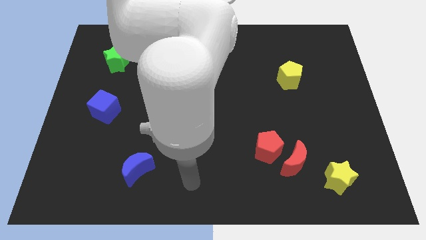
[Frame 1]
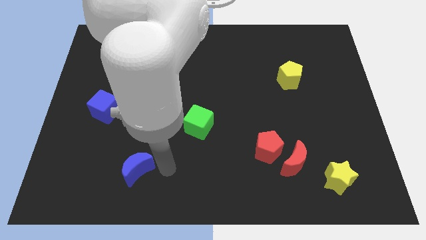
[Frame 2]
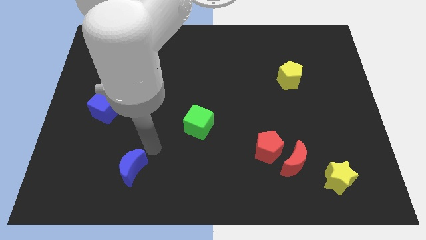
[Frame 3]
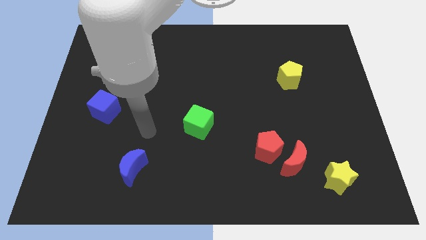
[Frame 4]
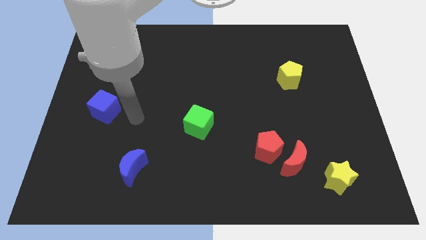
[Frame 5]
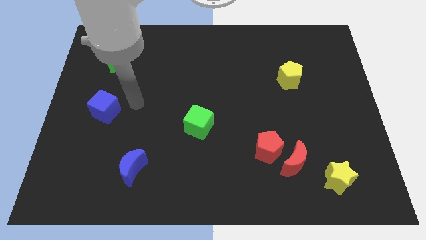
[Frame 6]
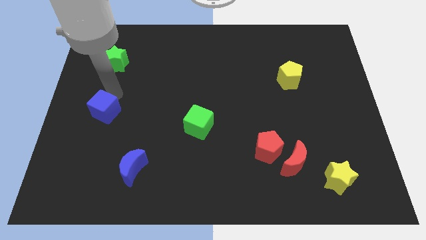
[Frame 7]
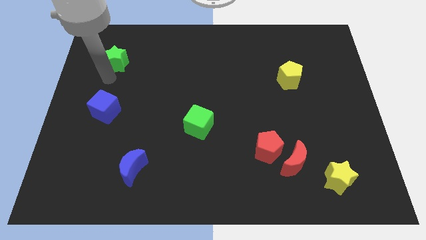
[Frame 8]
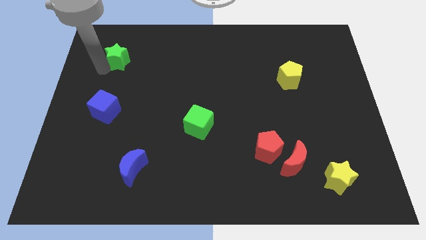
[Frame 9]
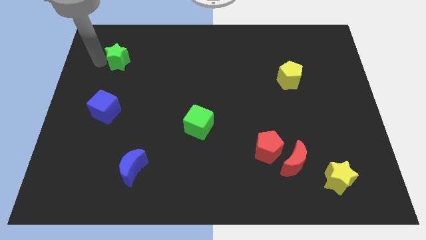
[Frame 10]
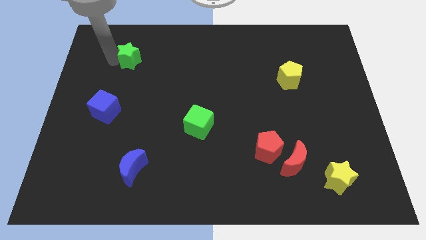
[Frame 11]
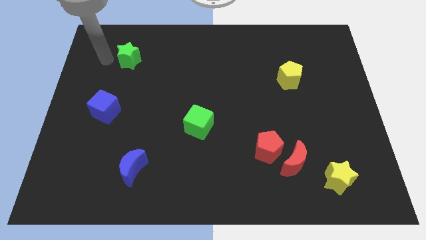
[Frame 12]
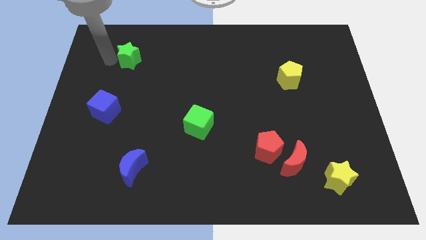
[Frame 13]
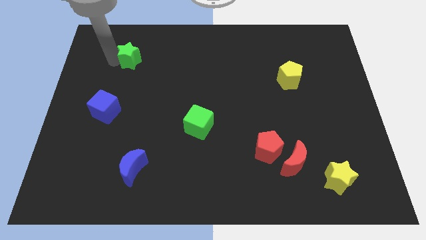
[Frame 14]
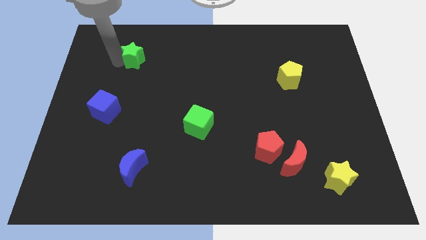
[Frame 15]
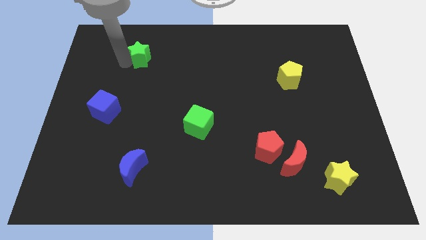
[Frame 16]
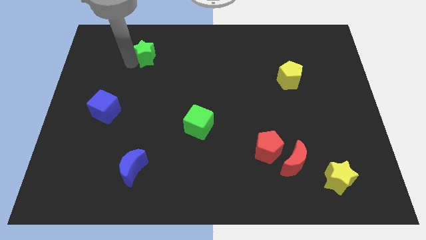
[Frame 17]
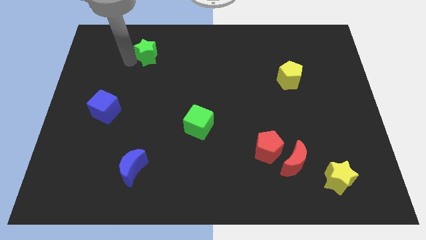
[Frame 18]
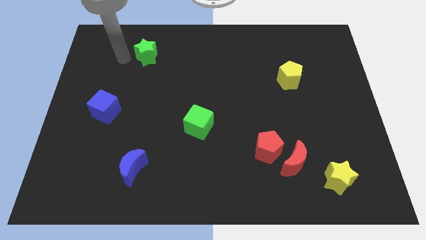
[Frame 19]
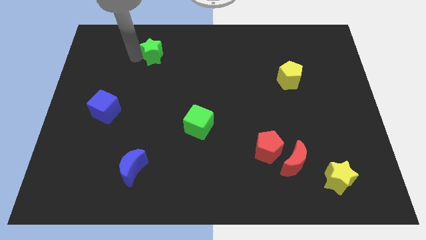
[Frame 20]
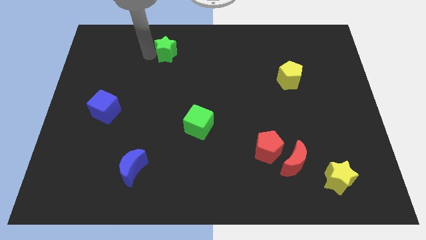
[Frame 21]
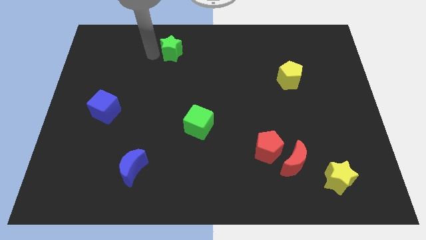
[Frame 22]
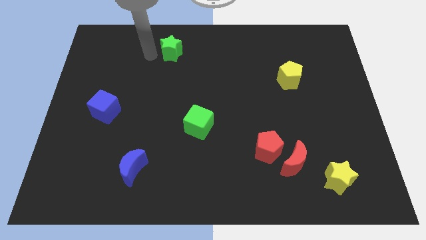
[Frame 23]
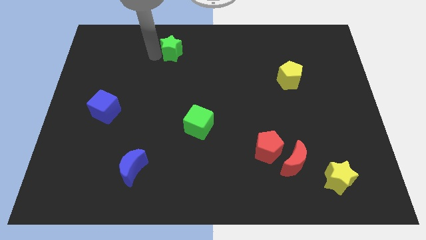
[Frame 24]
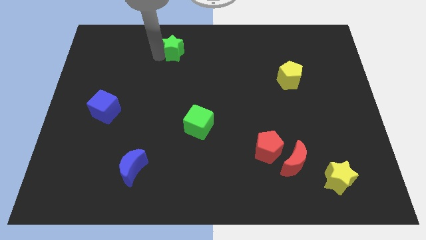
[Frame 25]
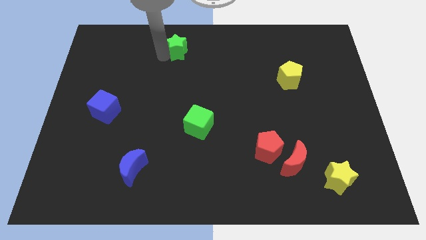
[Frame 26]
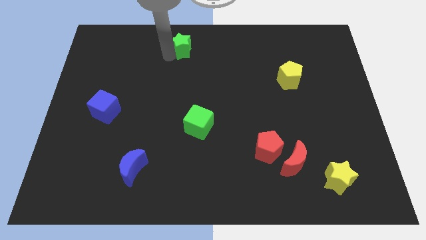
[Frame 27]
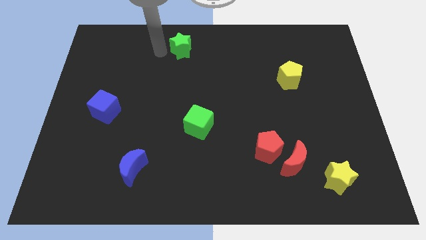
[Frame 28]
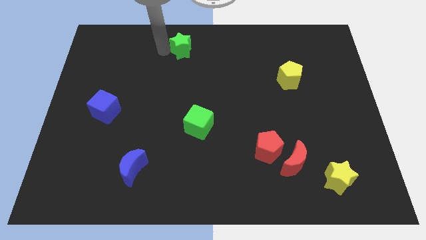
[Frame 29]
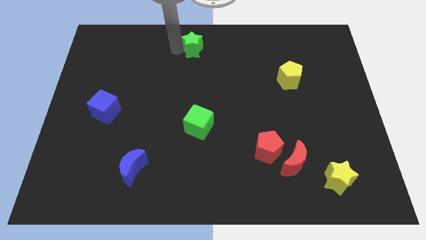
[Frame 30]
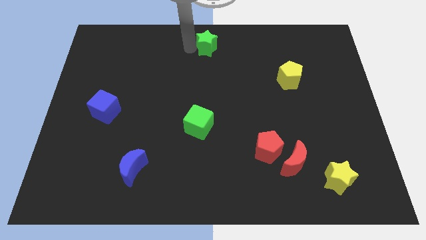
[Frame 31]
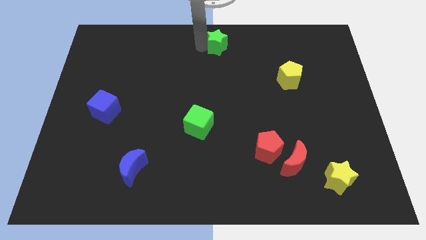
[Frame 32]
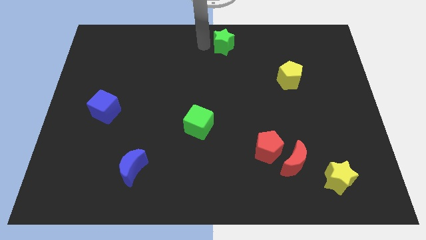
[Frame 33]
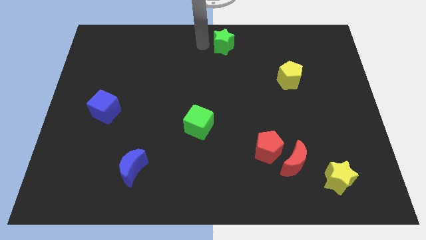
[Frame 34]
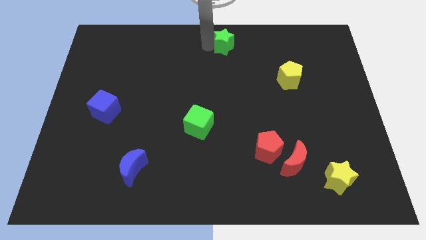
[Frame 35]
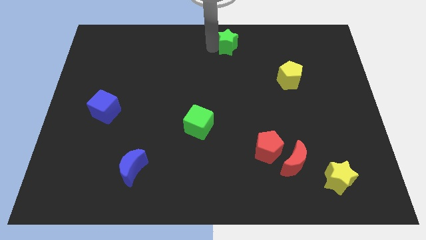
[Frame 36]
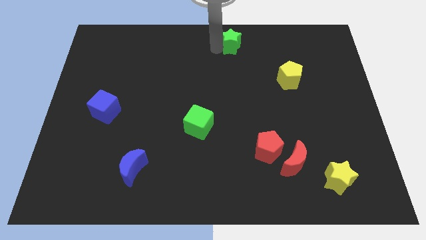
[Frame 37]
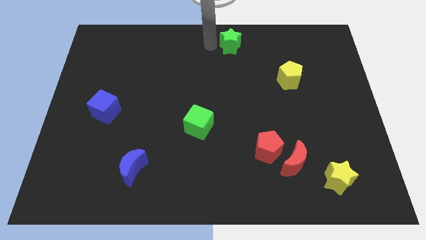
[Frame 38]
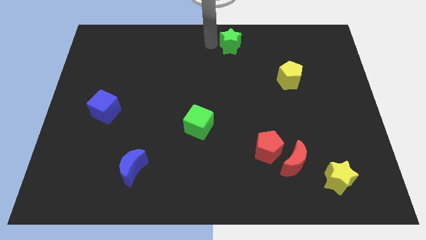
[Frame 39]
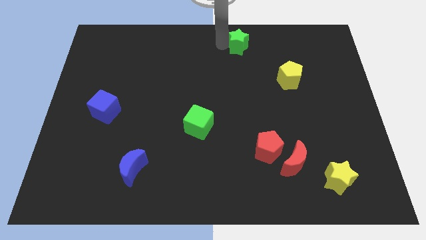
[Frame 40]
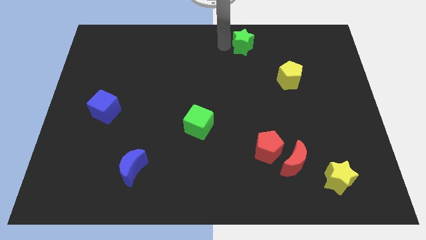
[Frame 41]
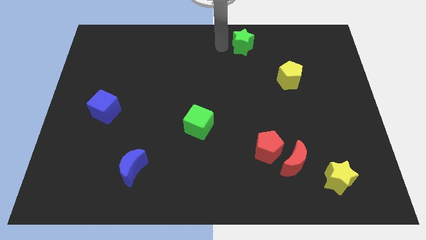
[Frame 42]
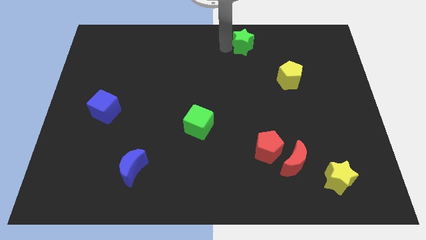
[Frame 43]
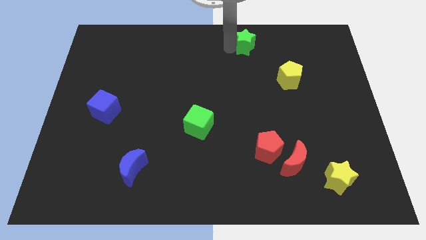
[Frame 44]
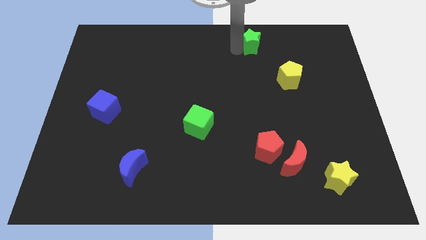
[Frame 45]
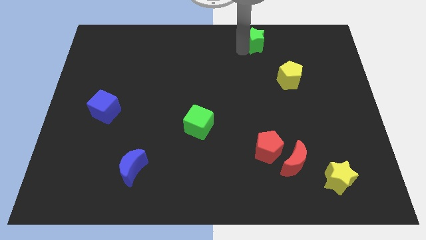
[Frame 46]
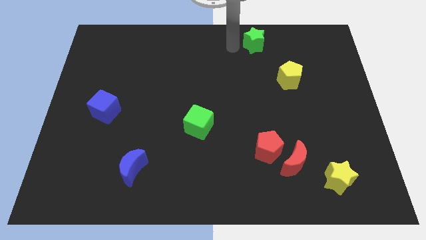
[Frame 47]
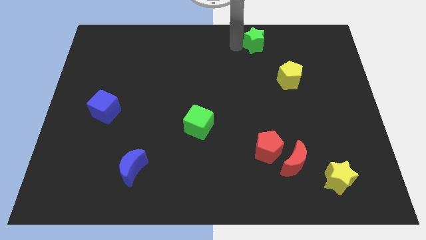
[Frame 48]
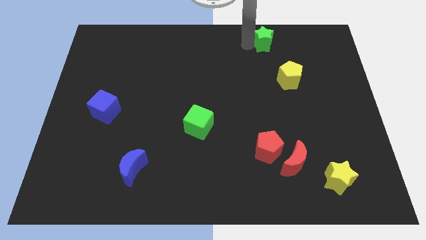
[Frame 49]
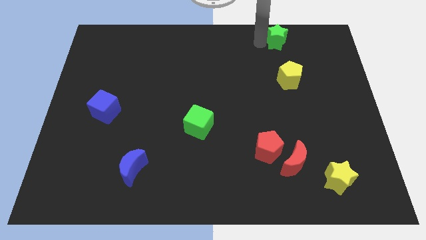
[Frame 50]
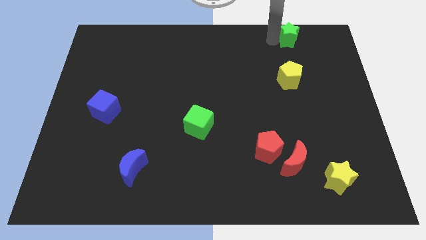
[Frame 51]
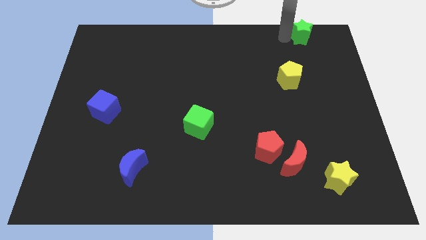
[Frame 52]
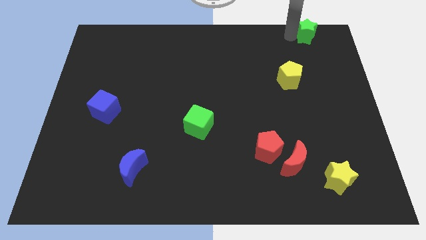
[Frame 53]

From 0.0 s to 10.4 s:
move the green star to the upper right corner

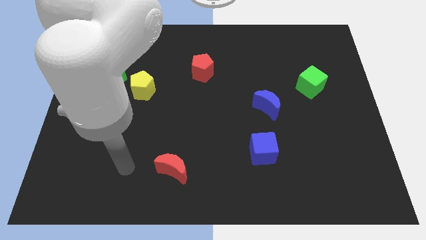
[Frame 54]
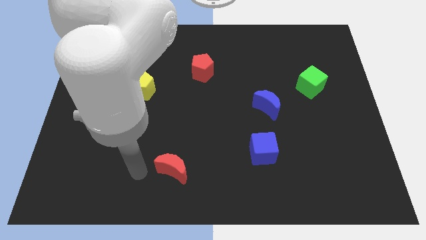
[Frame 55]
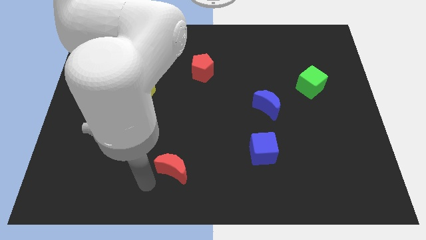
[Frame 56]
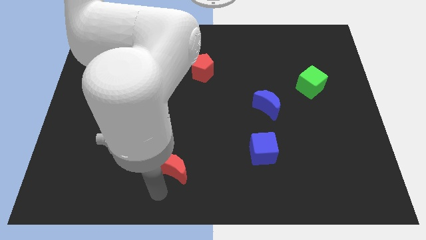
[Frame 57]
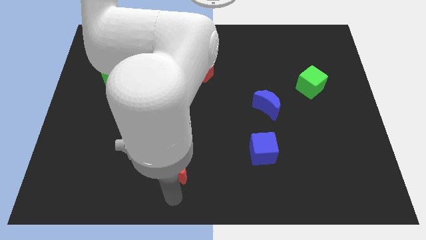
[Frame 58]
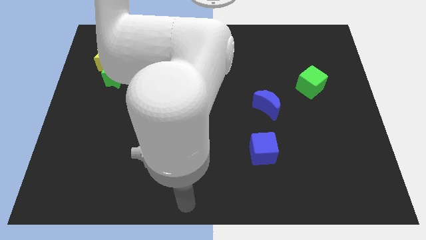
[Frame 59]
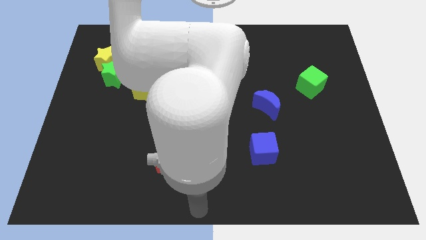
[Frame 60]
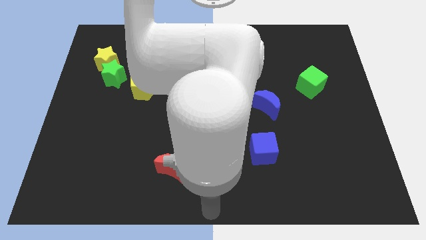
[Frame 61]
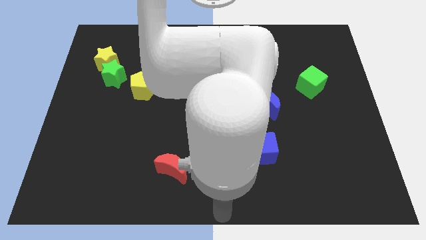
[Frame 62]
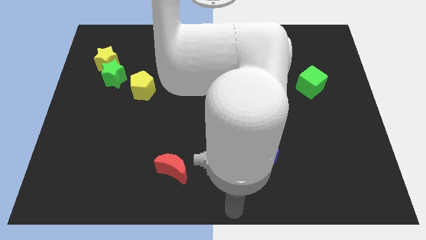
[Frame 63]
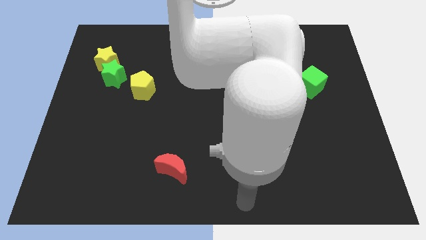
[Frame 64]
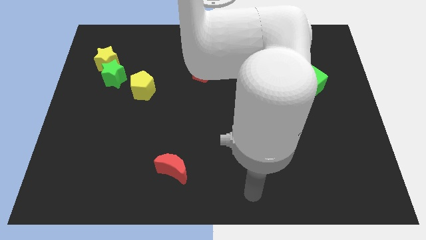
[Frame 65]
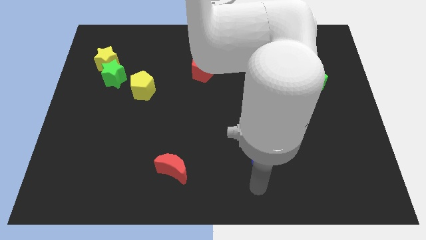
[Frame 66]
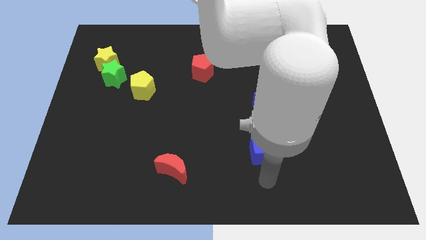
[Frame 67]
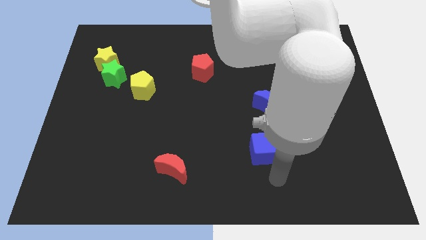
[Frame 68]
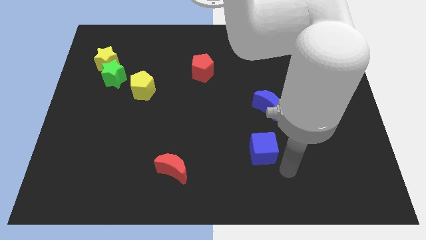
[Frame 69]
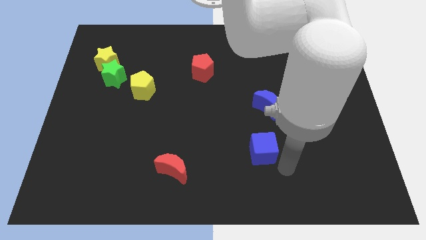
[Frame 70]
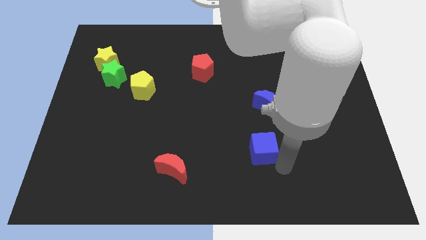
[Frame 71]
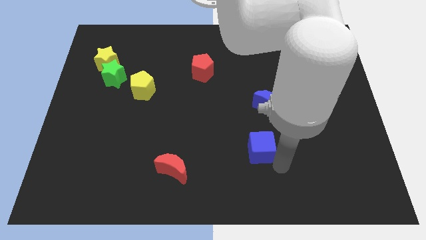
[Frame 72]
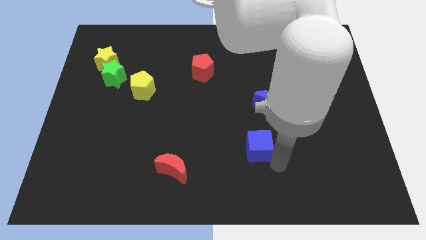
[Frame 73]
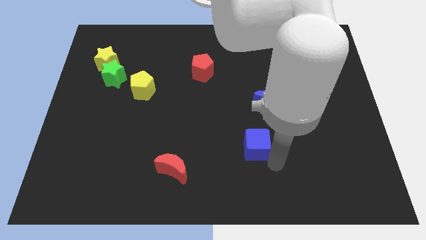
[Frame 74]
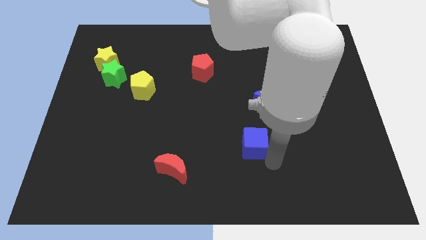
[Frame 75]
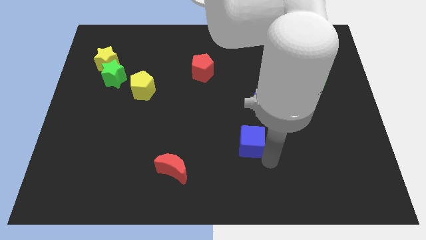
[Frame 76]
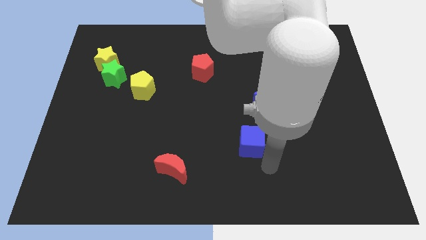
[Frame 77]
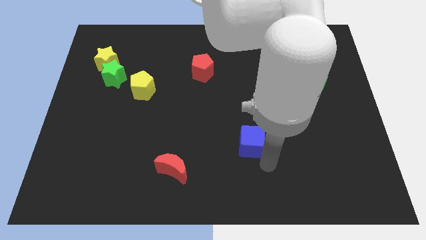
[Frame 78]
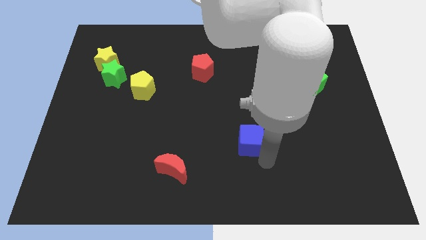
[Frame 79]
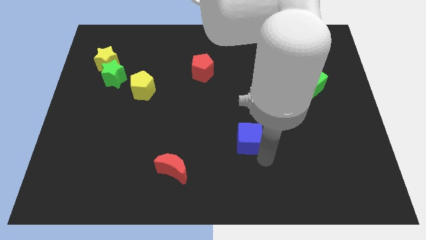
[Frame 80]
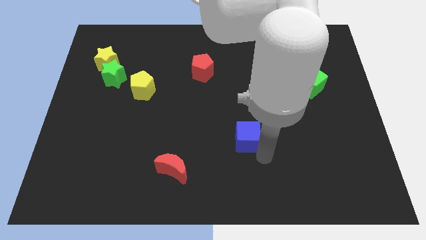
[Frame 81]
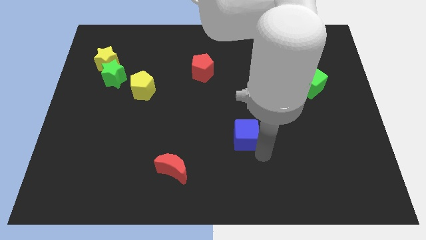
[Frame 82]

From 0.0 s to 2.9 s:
push the blue cube to the middle of the board

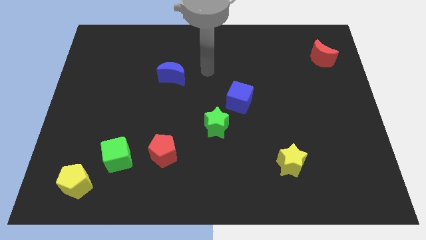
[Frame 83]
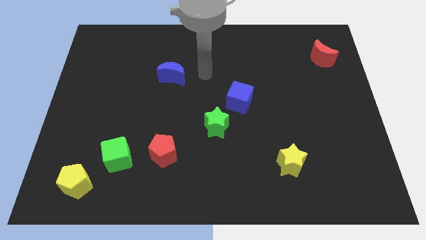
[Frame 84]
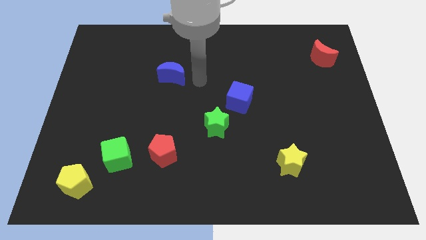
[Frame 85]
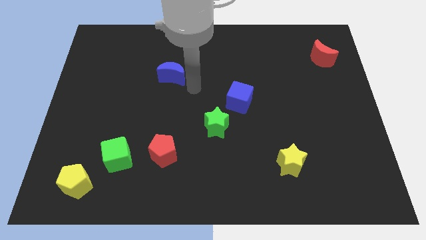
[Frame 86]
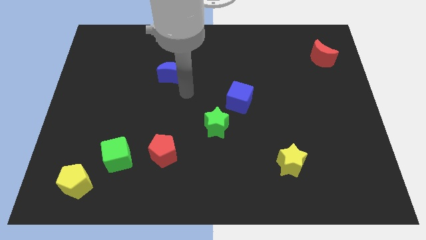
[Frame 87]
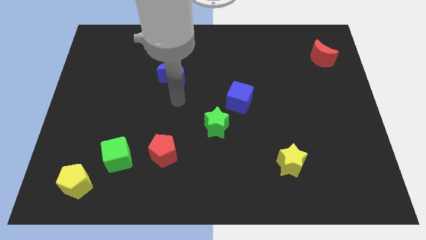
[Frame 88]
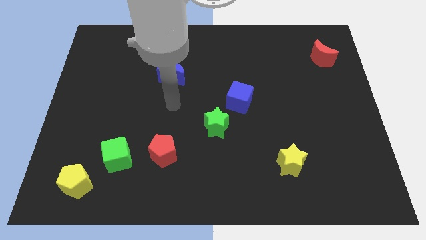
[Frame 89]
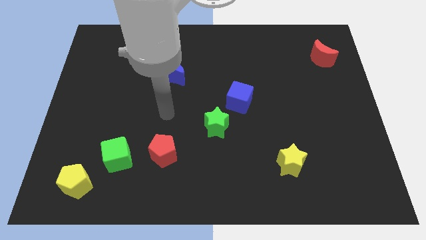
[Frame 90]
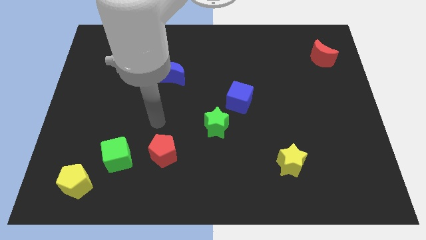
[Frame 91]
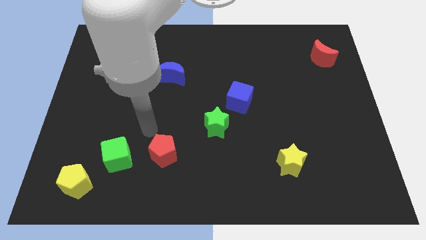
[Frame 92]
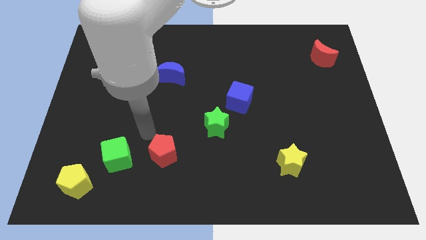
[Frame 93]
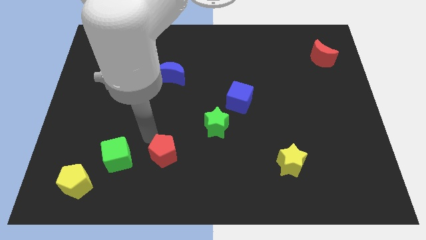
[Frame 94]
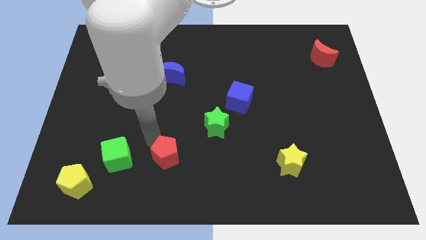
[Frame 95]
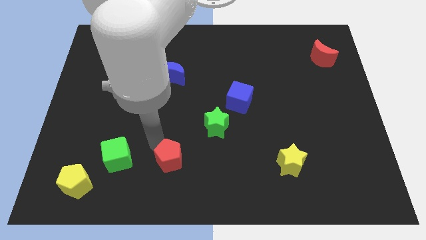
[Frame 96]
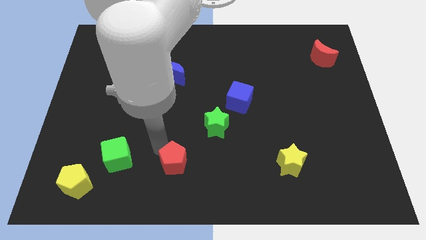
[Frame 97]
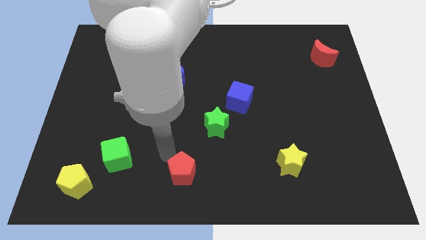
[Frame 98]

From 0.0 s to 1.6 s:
slide the red pentagon to the bottom
